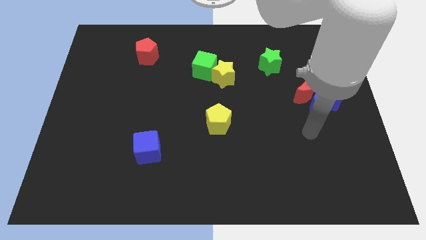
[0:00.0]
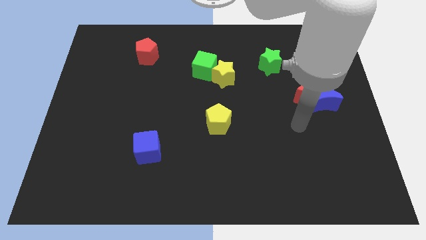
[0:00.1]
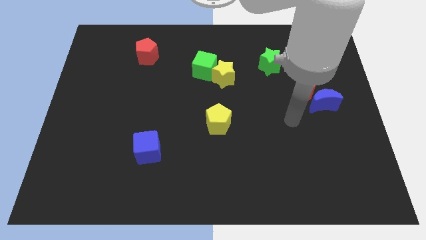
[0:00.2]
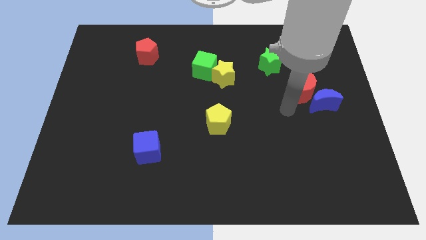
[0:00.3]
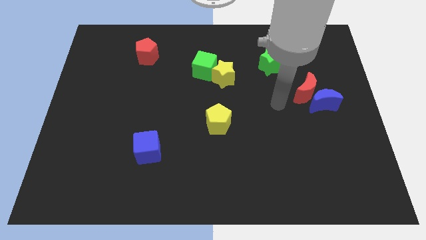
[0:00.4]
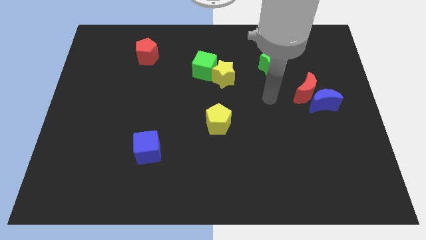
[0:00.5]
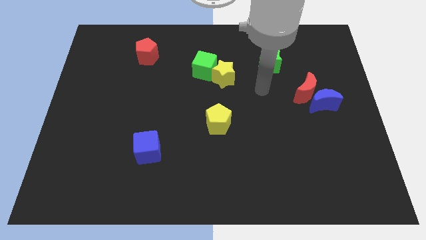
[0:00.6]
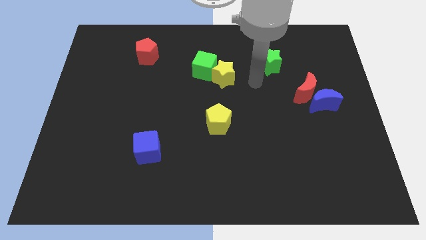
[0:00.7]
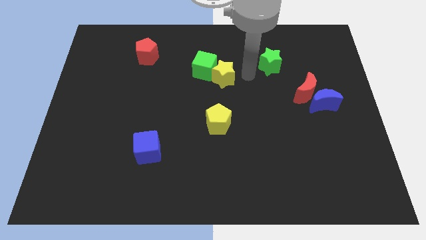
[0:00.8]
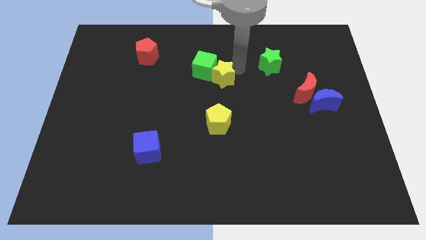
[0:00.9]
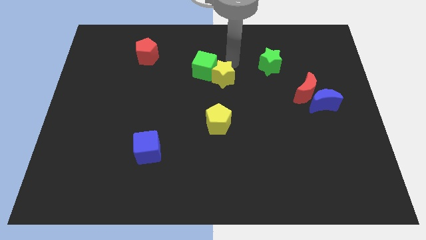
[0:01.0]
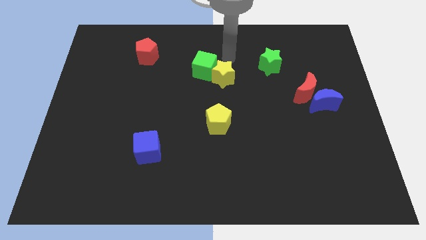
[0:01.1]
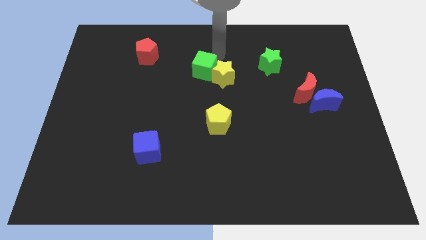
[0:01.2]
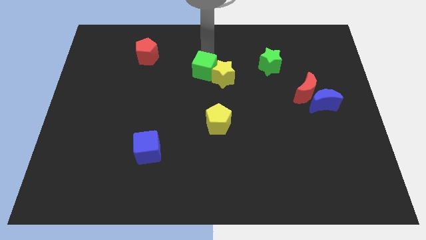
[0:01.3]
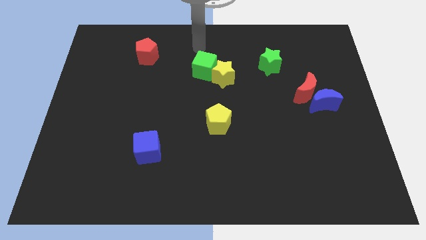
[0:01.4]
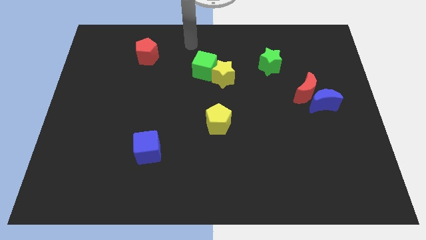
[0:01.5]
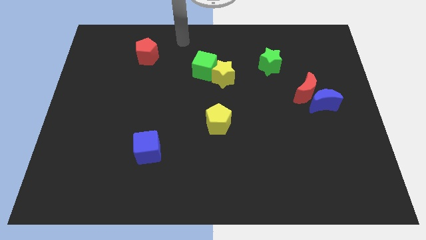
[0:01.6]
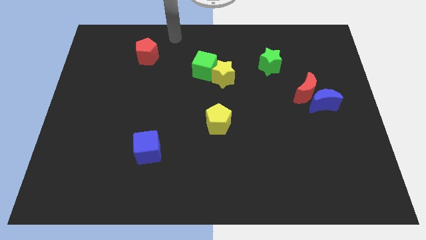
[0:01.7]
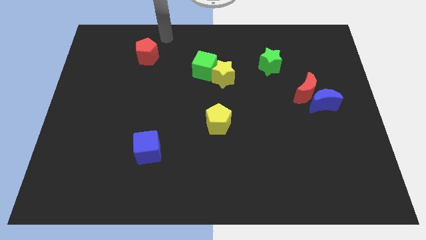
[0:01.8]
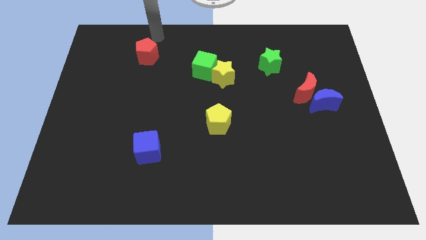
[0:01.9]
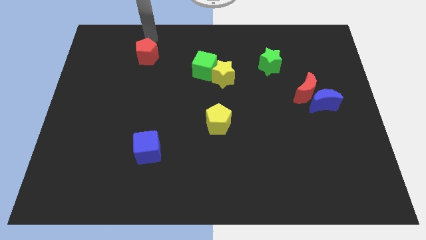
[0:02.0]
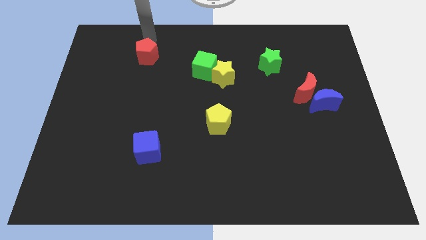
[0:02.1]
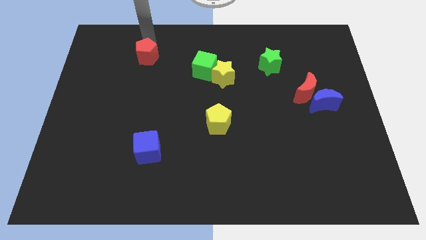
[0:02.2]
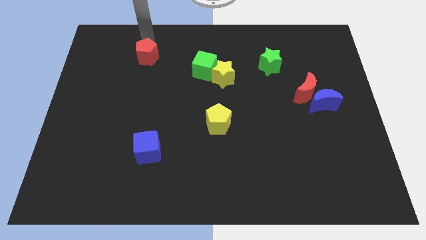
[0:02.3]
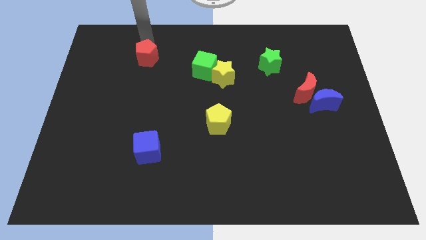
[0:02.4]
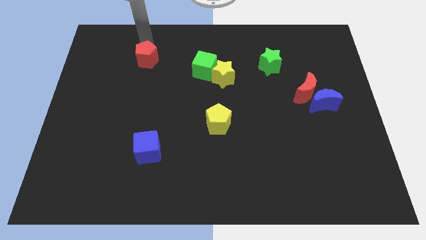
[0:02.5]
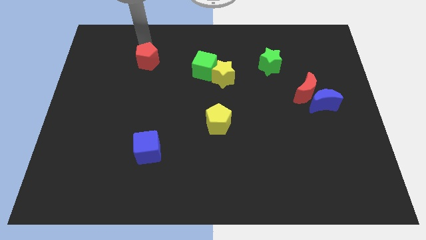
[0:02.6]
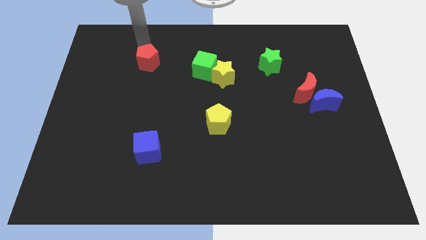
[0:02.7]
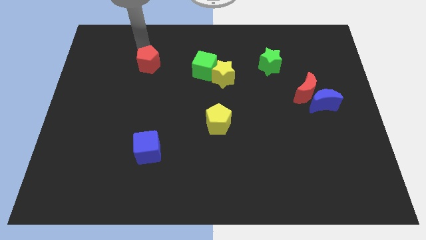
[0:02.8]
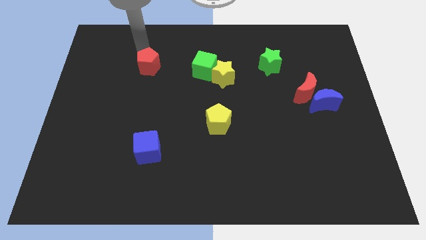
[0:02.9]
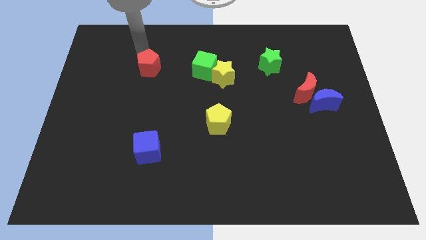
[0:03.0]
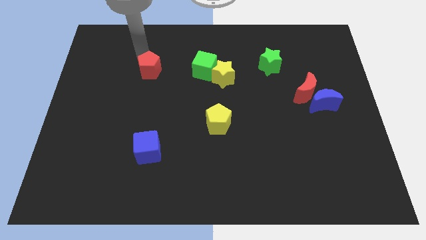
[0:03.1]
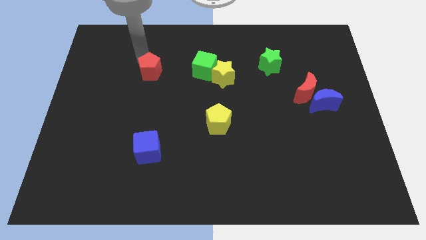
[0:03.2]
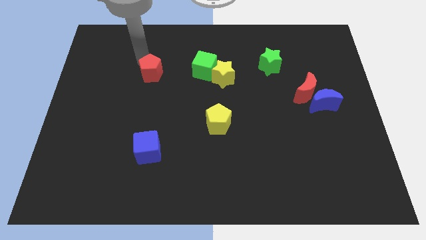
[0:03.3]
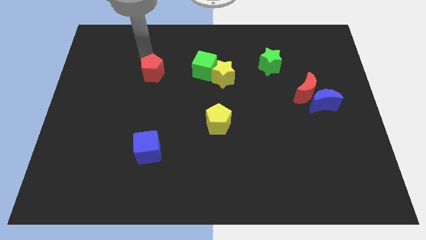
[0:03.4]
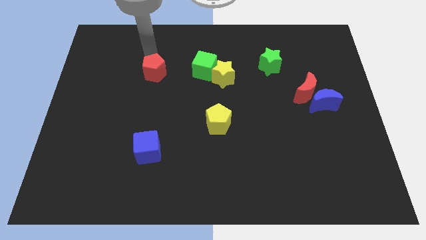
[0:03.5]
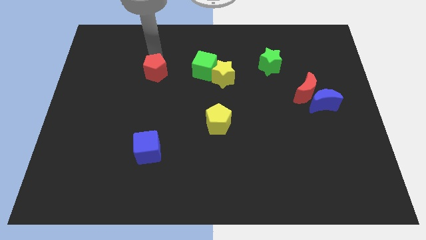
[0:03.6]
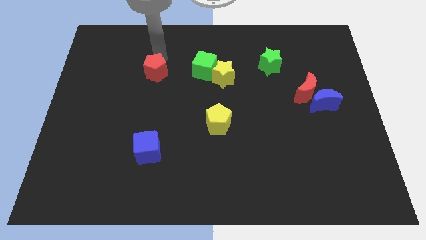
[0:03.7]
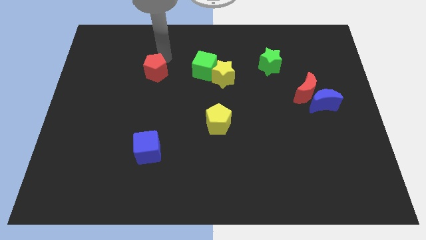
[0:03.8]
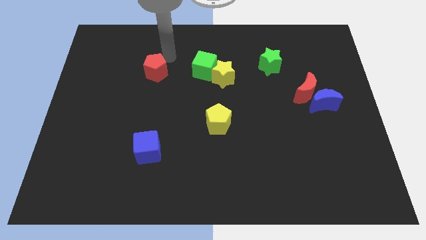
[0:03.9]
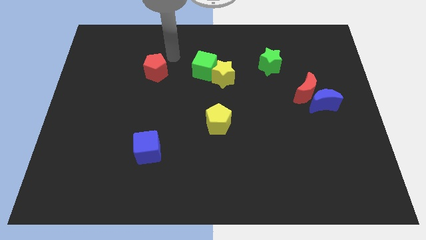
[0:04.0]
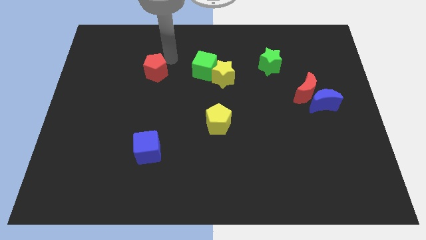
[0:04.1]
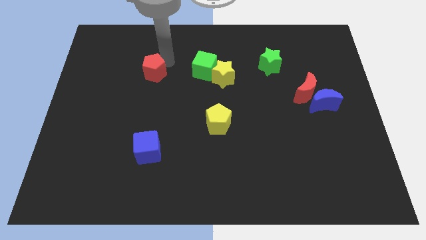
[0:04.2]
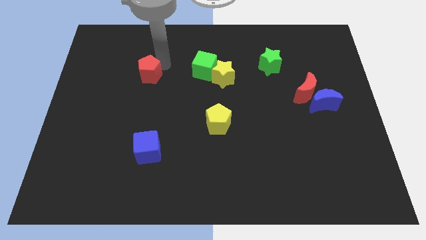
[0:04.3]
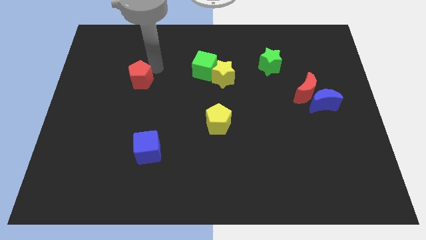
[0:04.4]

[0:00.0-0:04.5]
move the red pentagon downwards a little

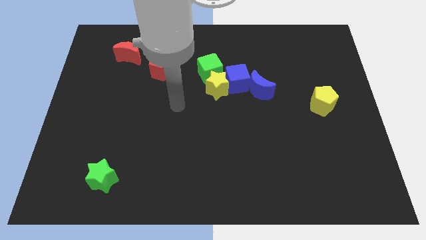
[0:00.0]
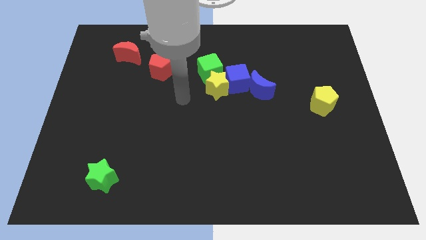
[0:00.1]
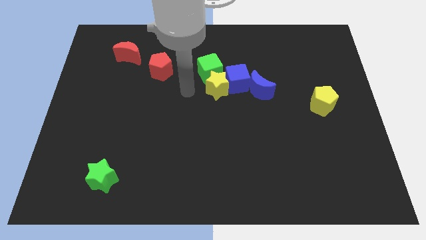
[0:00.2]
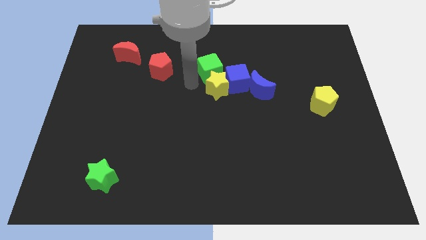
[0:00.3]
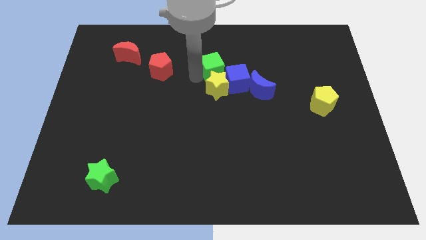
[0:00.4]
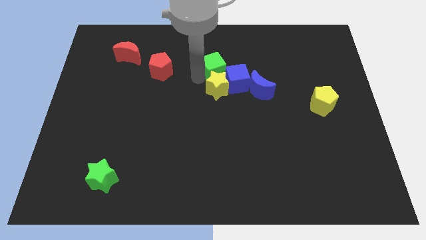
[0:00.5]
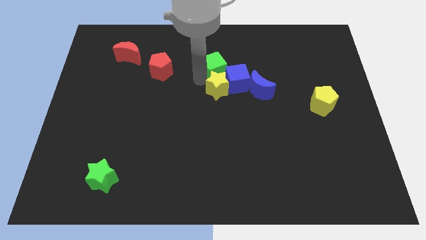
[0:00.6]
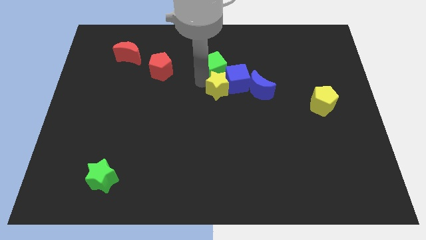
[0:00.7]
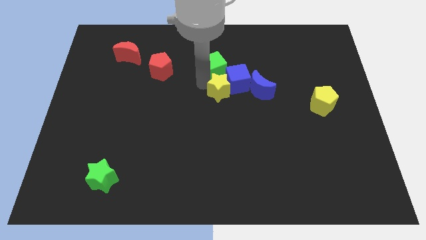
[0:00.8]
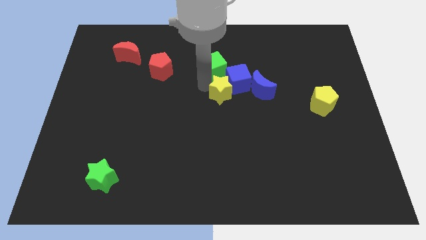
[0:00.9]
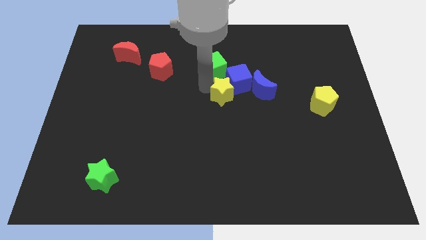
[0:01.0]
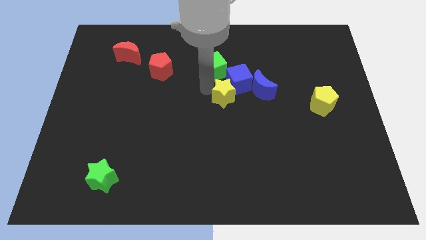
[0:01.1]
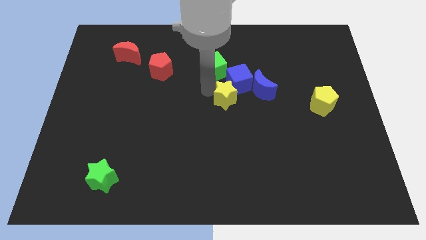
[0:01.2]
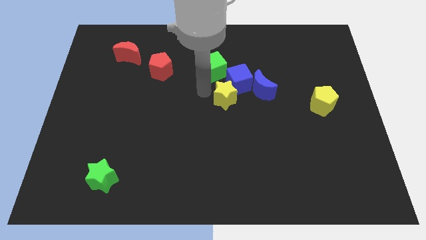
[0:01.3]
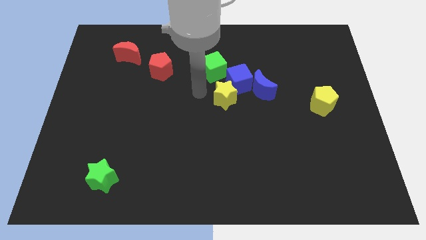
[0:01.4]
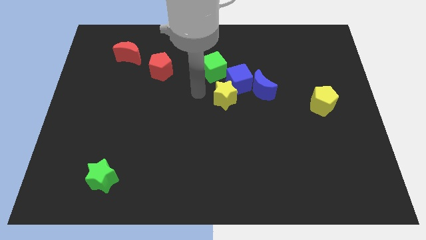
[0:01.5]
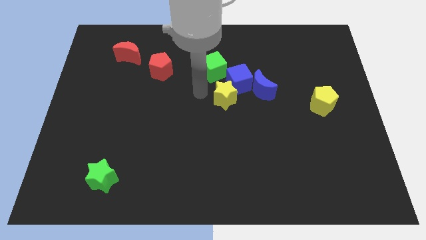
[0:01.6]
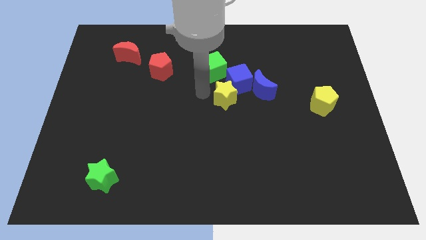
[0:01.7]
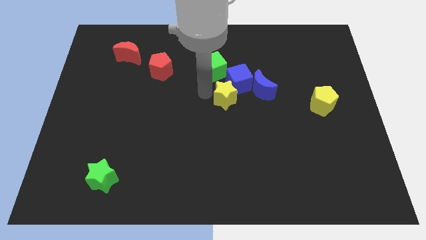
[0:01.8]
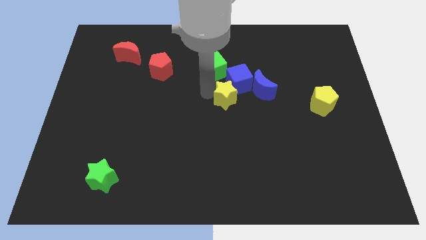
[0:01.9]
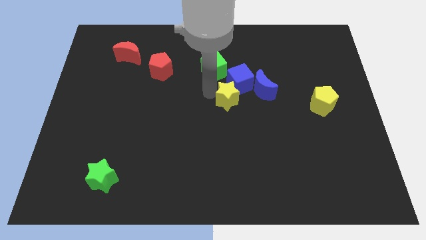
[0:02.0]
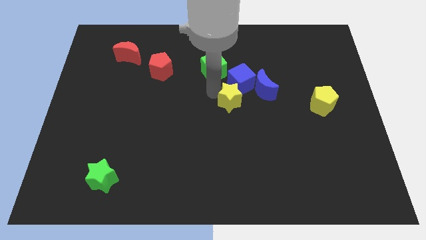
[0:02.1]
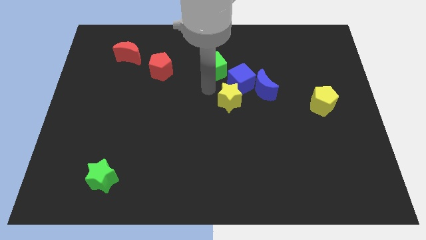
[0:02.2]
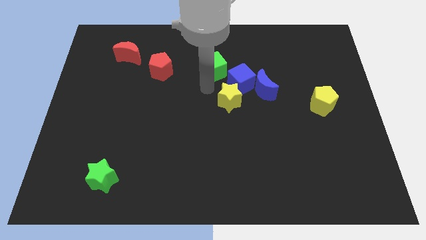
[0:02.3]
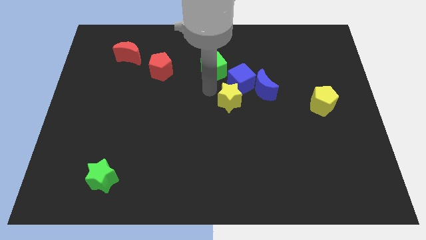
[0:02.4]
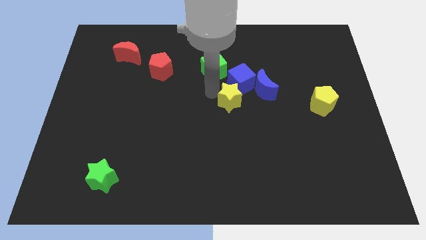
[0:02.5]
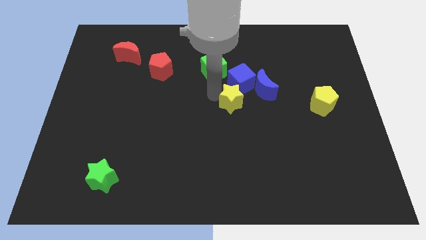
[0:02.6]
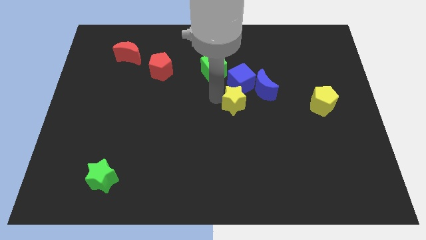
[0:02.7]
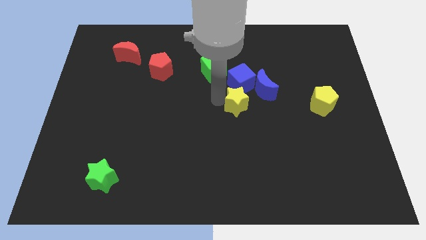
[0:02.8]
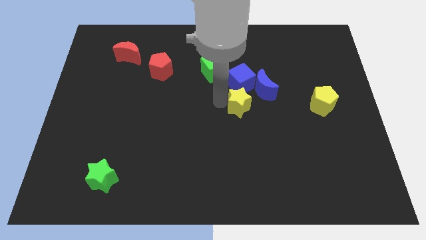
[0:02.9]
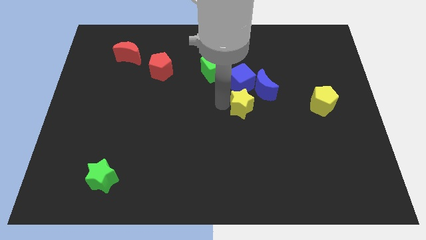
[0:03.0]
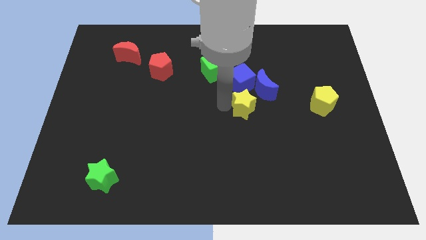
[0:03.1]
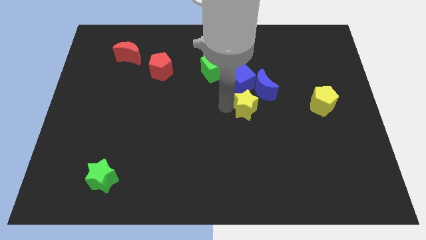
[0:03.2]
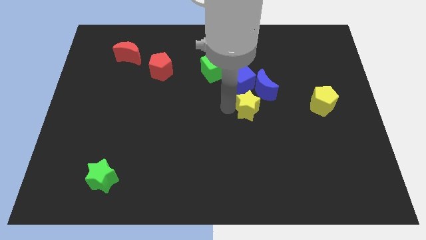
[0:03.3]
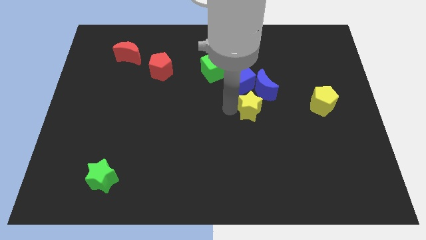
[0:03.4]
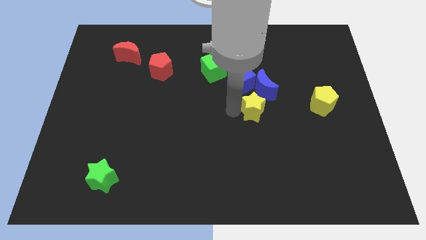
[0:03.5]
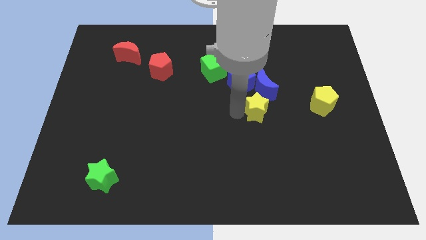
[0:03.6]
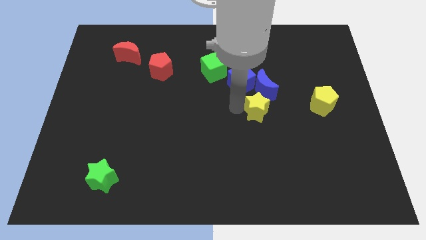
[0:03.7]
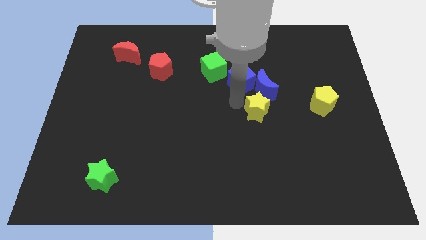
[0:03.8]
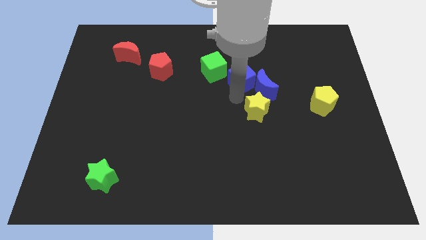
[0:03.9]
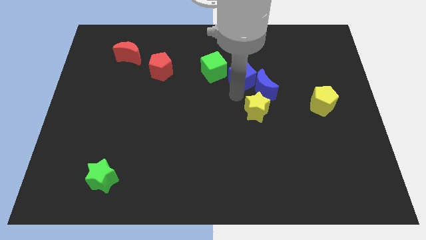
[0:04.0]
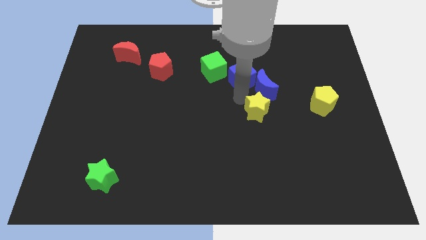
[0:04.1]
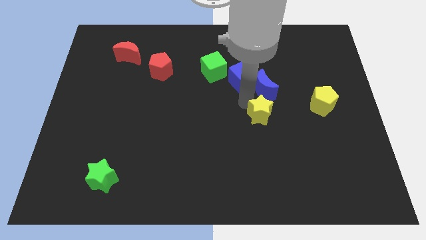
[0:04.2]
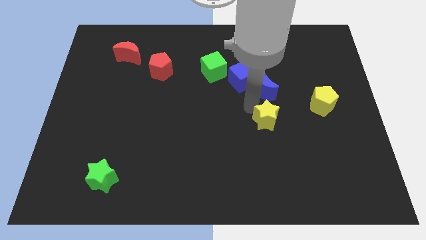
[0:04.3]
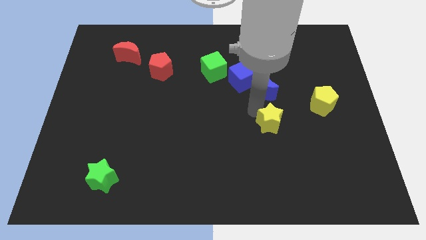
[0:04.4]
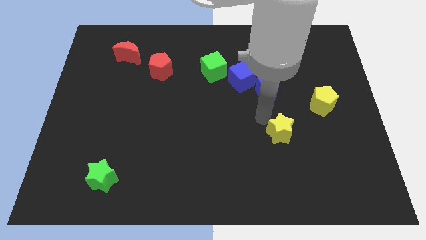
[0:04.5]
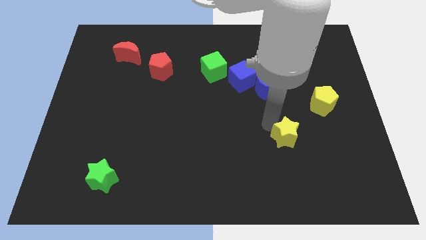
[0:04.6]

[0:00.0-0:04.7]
slide the yellow star downwards and right
